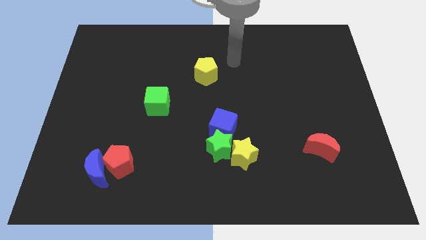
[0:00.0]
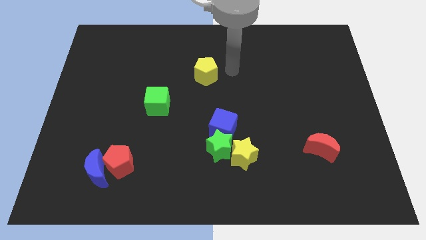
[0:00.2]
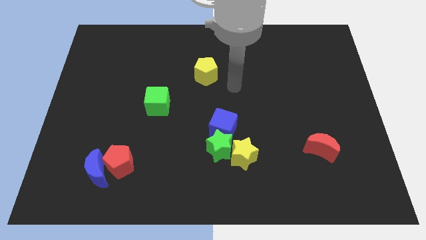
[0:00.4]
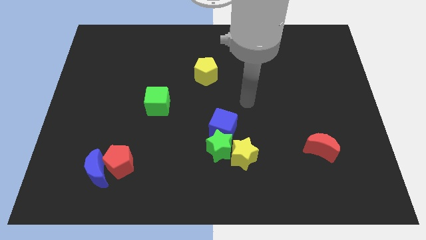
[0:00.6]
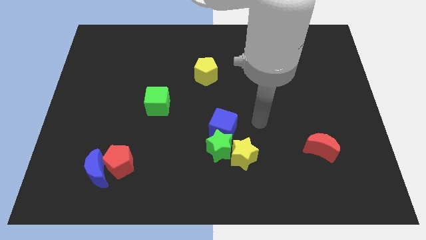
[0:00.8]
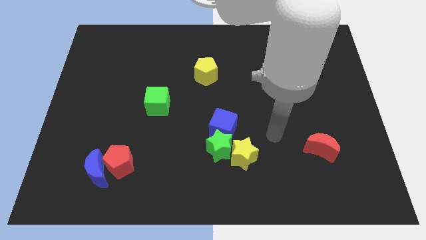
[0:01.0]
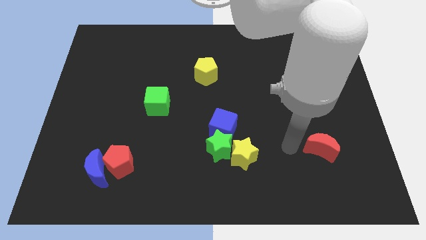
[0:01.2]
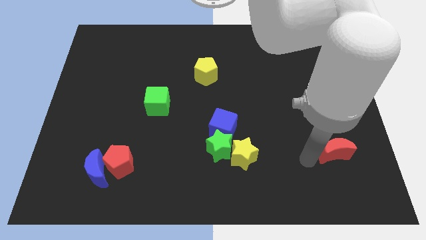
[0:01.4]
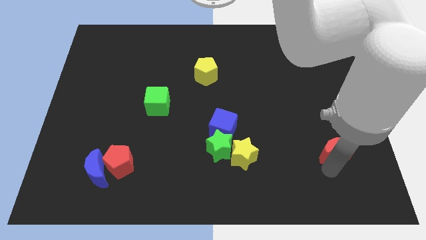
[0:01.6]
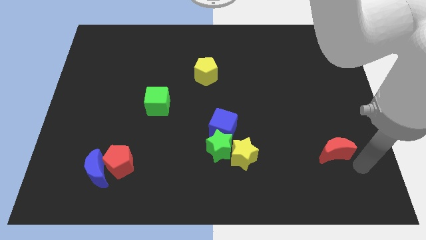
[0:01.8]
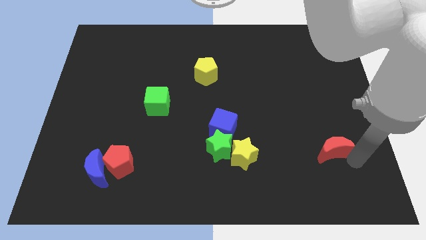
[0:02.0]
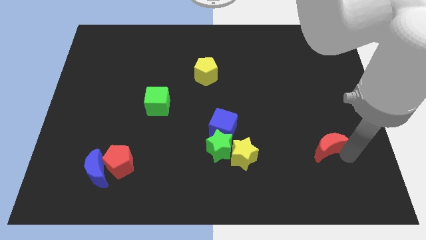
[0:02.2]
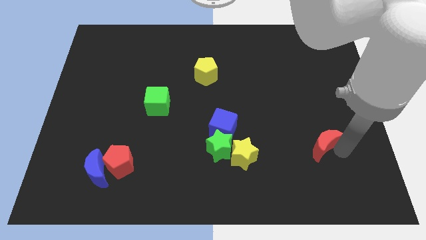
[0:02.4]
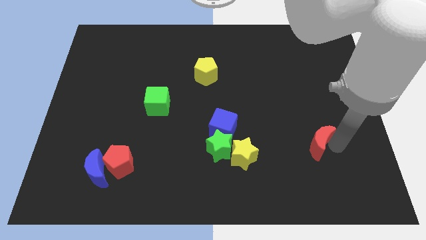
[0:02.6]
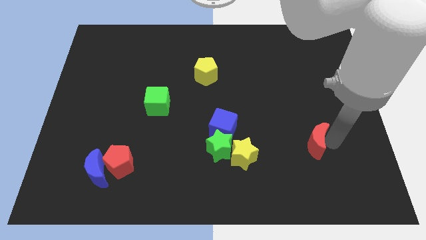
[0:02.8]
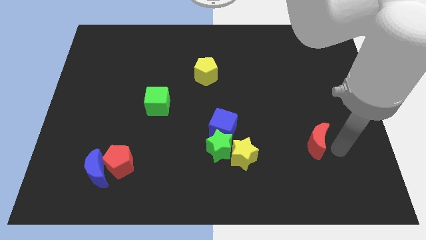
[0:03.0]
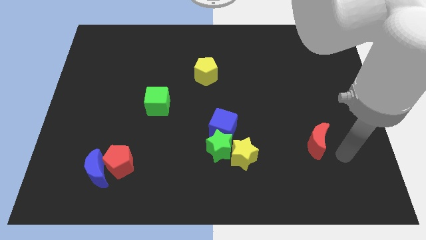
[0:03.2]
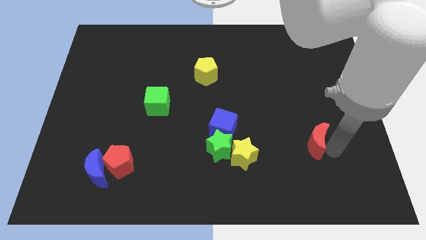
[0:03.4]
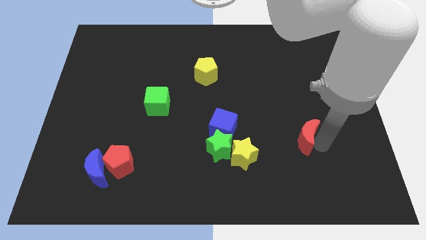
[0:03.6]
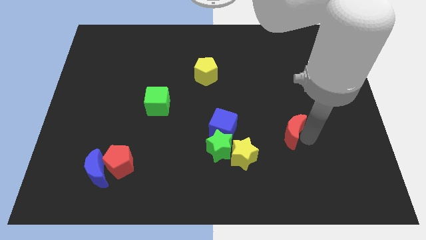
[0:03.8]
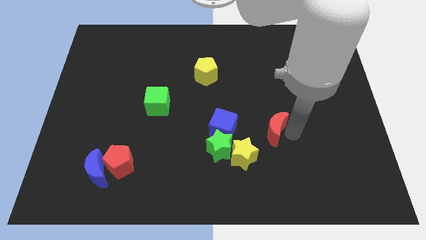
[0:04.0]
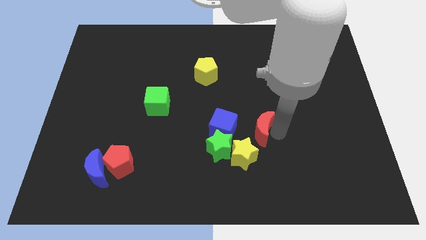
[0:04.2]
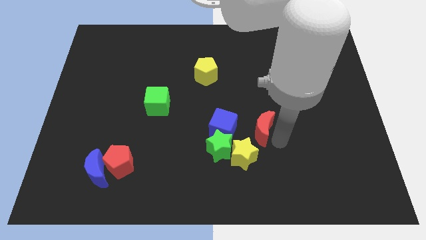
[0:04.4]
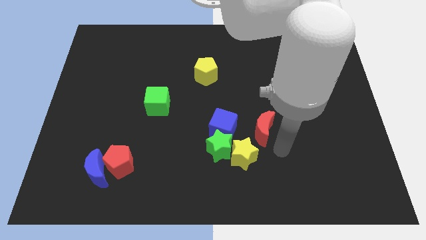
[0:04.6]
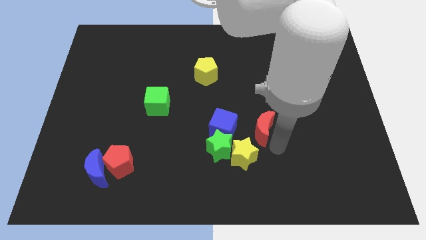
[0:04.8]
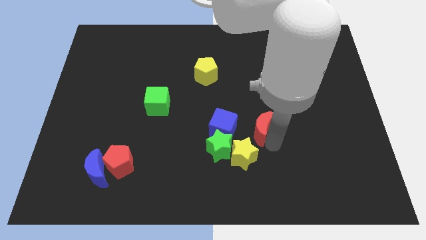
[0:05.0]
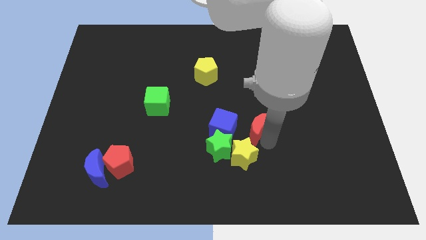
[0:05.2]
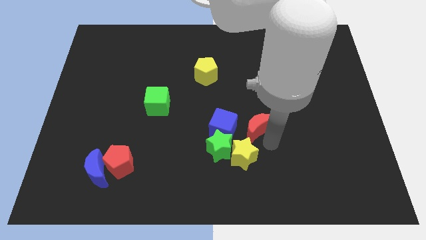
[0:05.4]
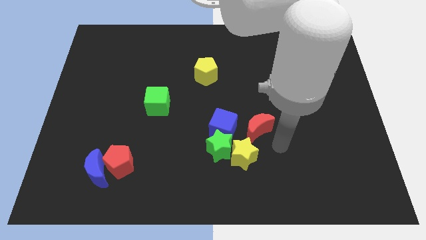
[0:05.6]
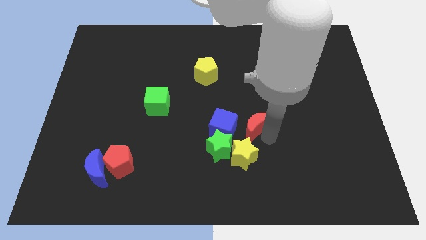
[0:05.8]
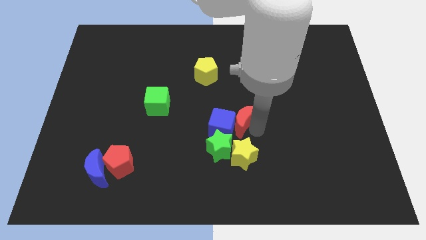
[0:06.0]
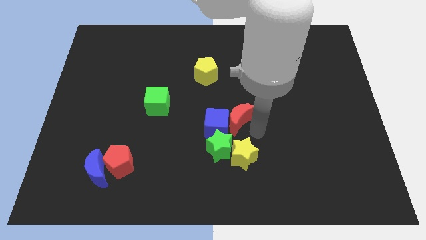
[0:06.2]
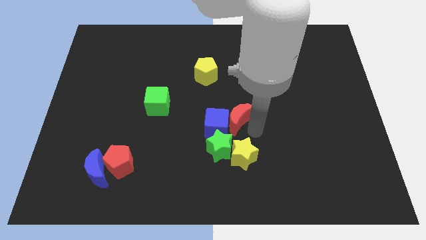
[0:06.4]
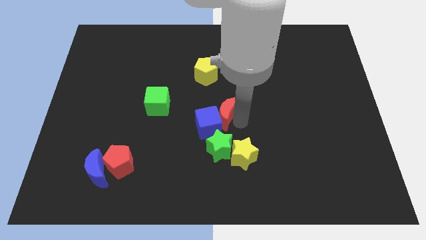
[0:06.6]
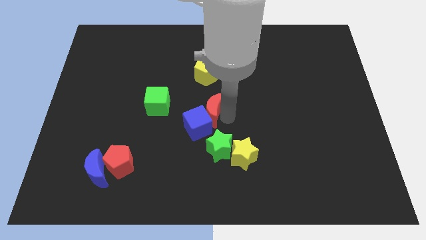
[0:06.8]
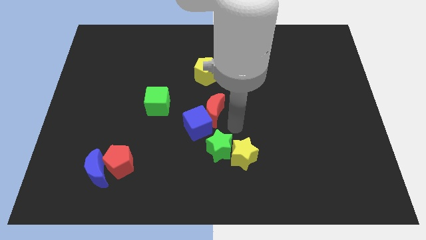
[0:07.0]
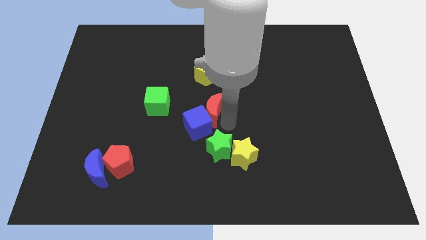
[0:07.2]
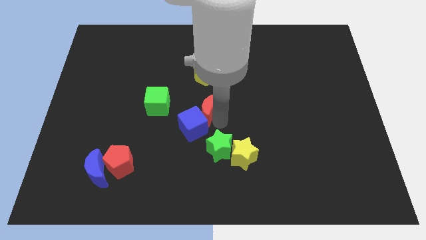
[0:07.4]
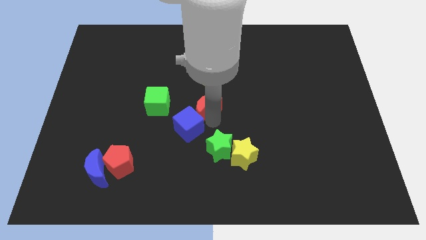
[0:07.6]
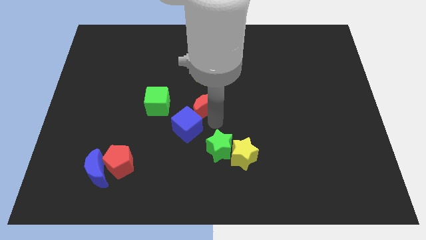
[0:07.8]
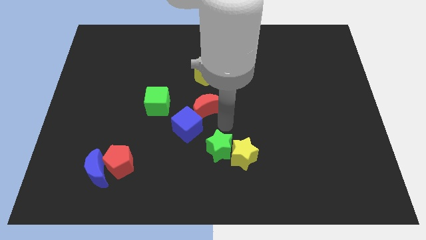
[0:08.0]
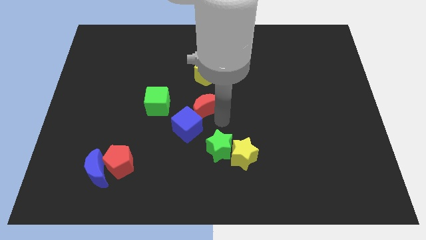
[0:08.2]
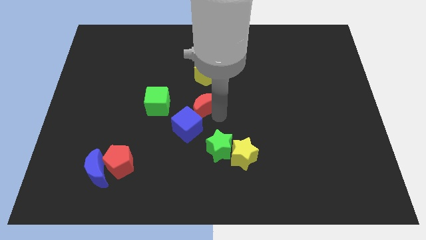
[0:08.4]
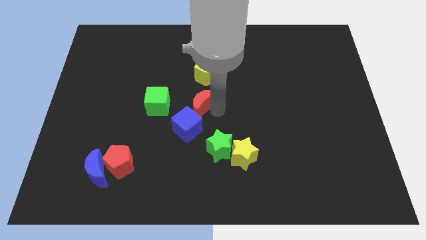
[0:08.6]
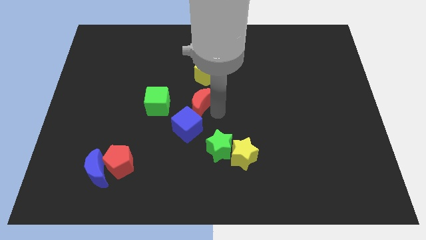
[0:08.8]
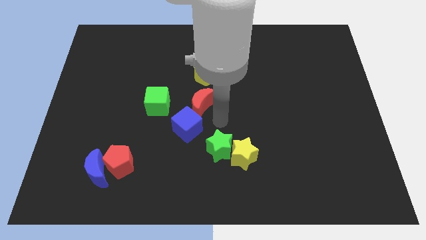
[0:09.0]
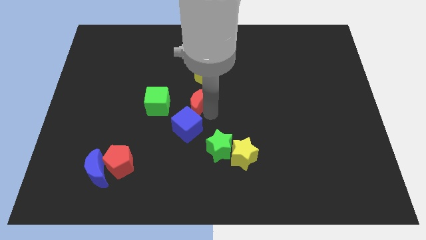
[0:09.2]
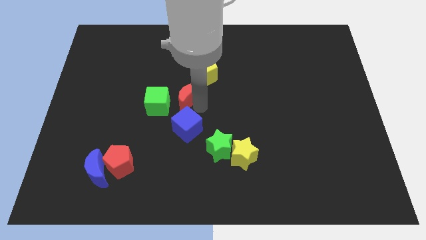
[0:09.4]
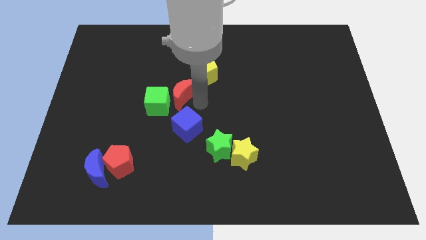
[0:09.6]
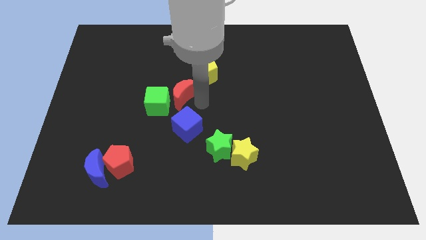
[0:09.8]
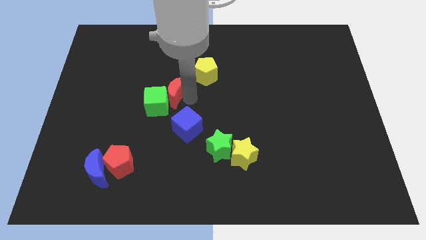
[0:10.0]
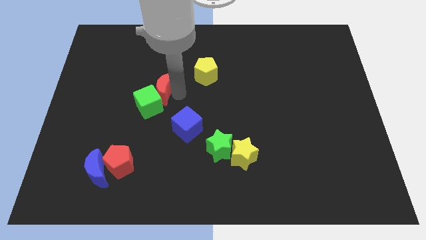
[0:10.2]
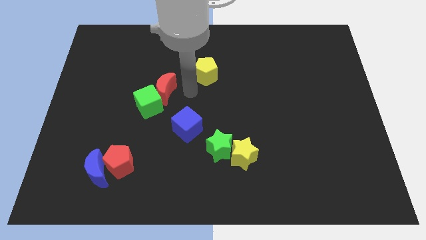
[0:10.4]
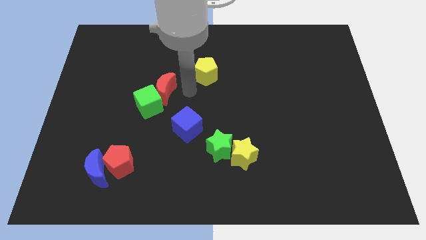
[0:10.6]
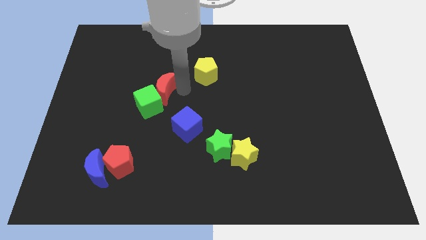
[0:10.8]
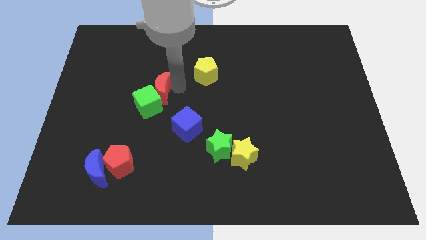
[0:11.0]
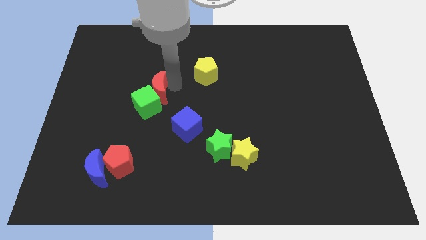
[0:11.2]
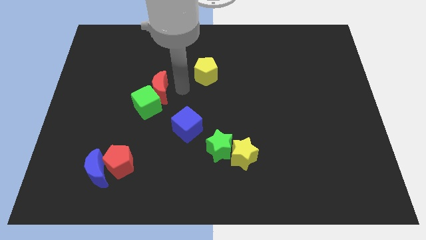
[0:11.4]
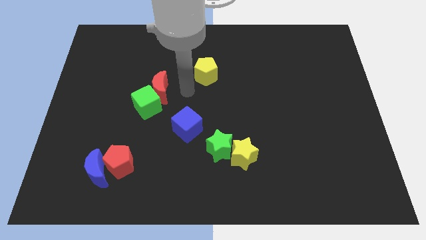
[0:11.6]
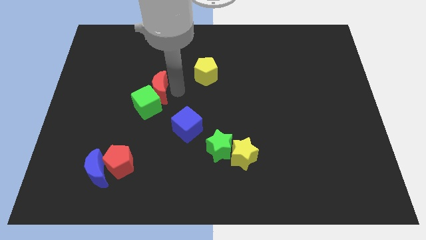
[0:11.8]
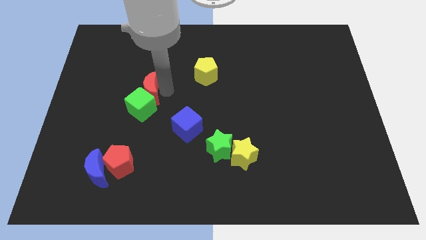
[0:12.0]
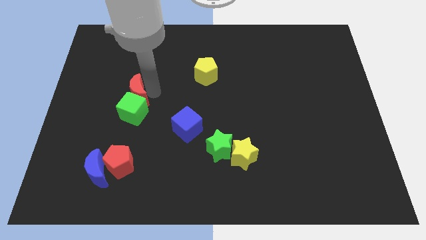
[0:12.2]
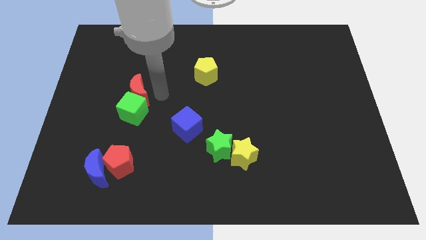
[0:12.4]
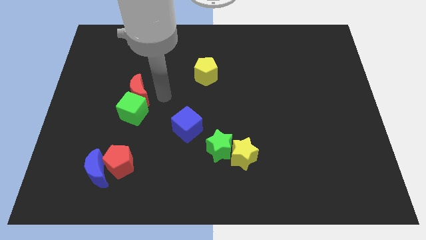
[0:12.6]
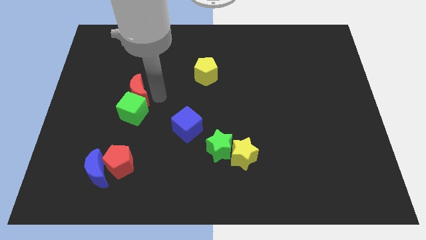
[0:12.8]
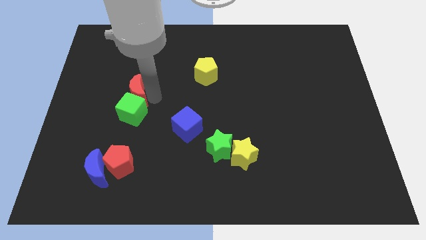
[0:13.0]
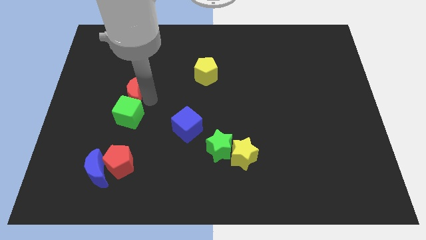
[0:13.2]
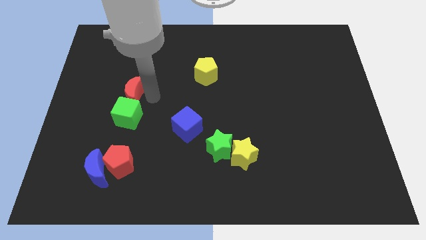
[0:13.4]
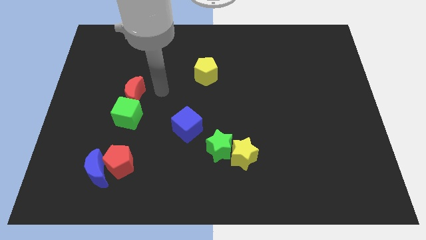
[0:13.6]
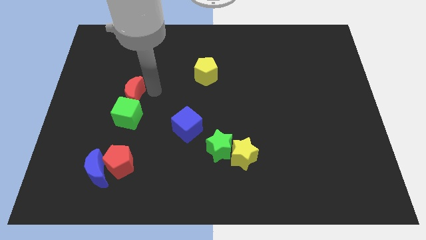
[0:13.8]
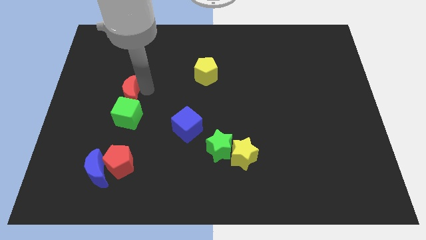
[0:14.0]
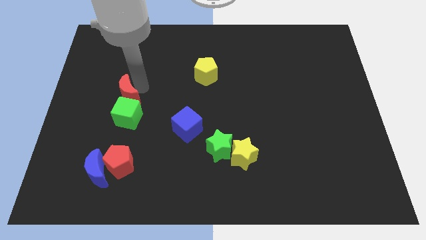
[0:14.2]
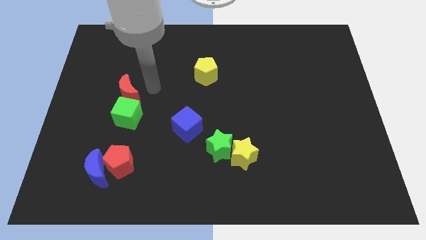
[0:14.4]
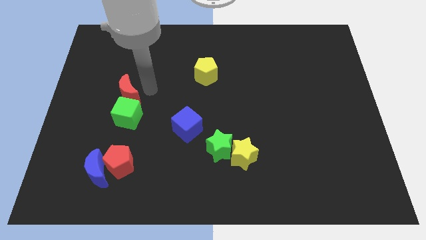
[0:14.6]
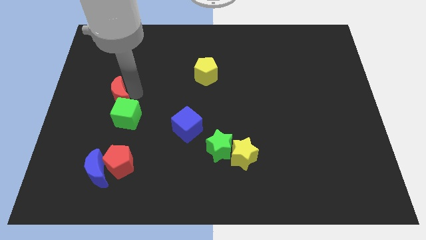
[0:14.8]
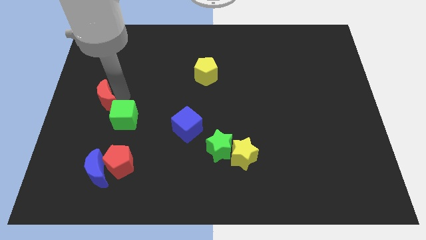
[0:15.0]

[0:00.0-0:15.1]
push the red moon to the left side
